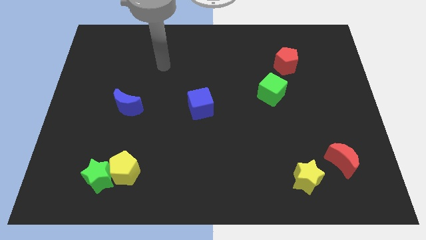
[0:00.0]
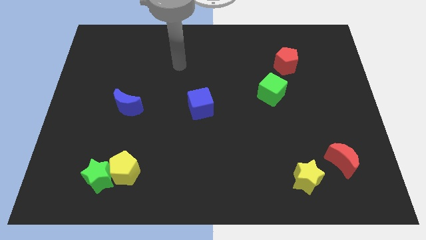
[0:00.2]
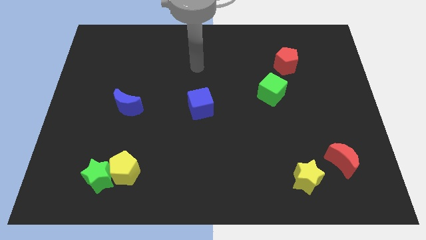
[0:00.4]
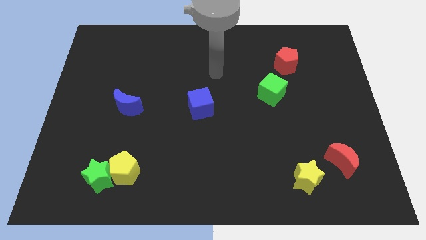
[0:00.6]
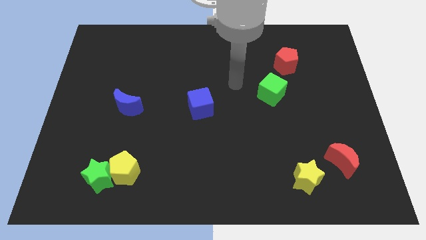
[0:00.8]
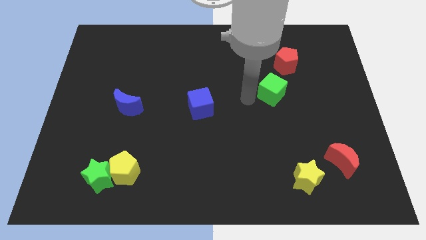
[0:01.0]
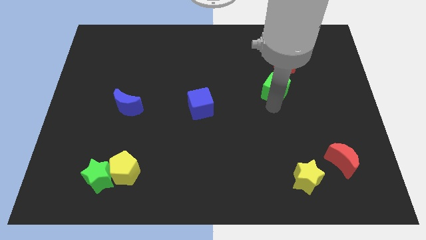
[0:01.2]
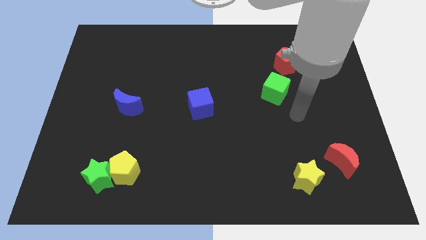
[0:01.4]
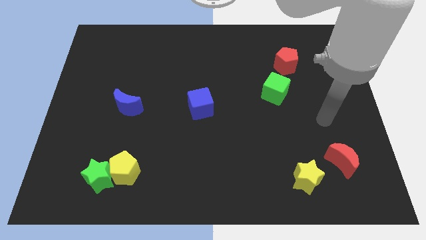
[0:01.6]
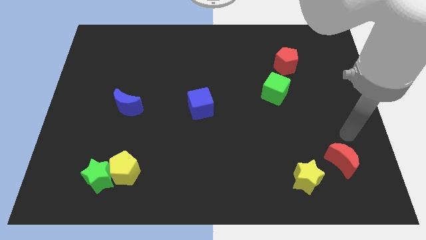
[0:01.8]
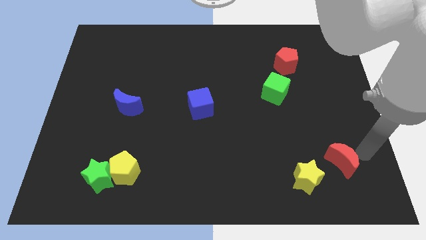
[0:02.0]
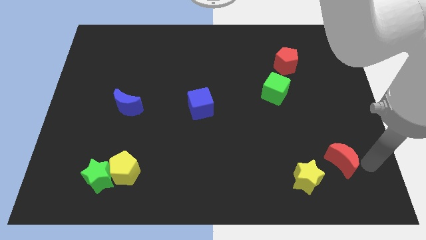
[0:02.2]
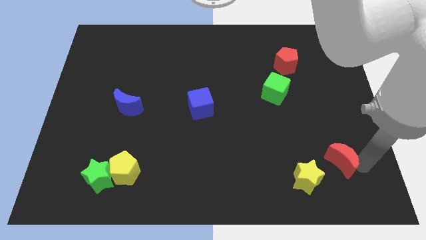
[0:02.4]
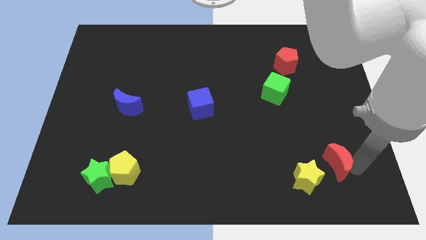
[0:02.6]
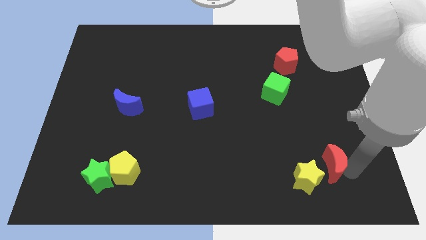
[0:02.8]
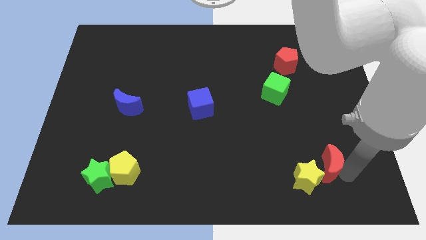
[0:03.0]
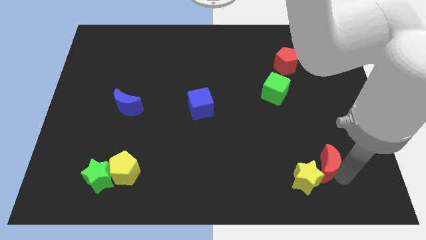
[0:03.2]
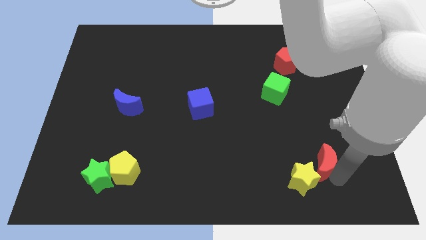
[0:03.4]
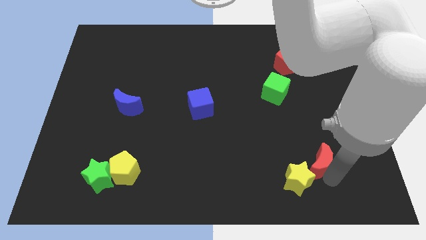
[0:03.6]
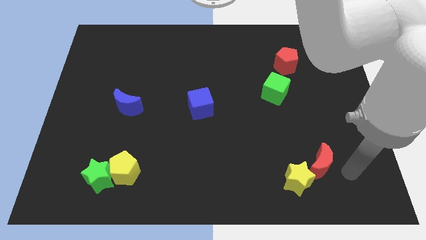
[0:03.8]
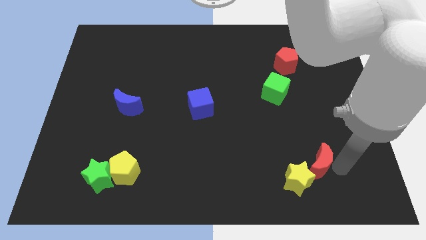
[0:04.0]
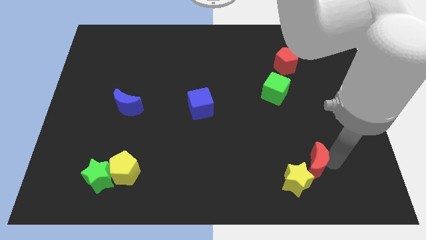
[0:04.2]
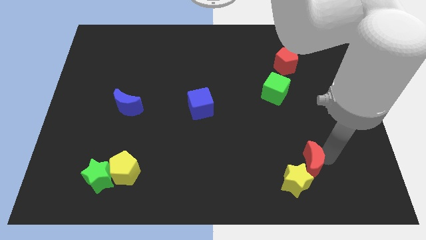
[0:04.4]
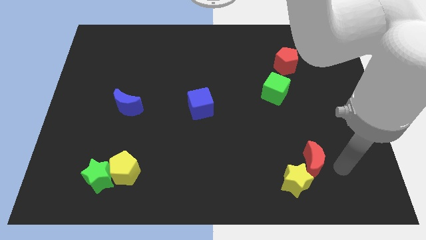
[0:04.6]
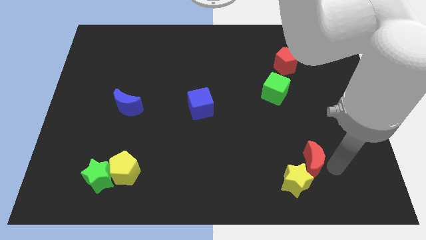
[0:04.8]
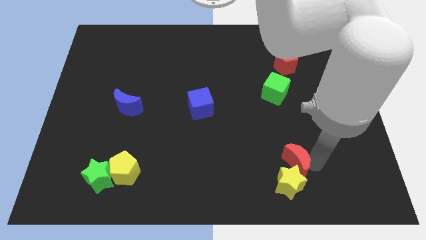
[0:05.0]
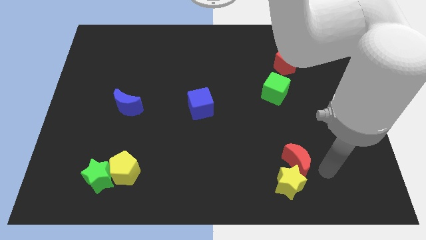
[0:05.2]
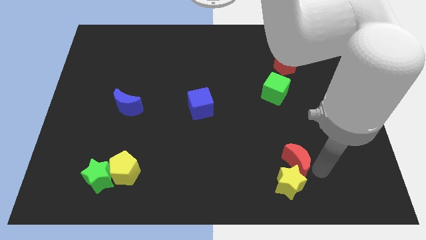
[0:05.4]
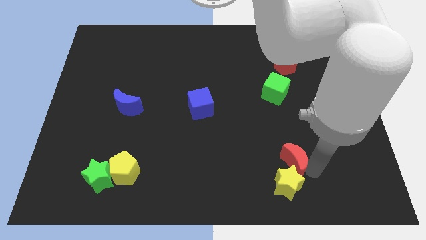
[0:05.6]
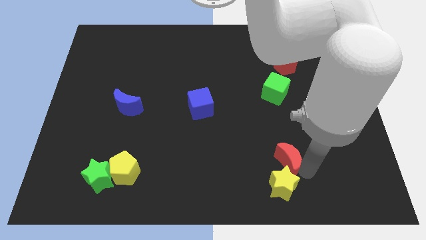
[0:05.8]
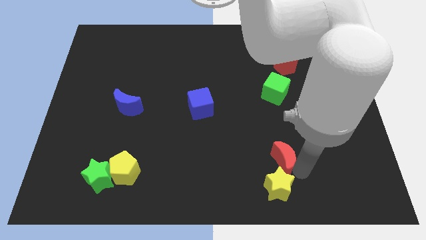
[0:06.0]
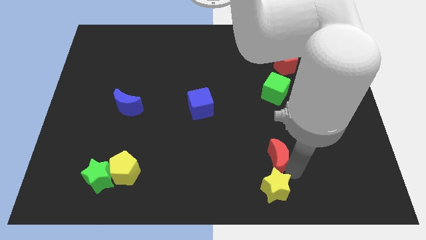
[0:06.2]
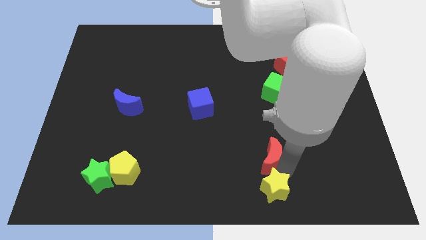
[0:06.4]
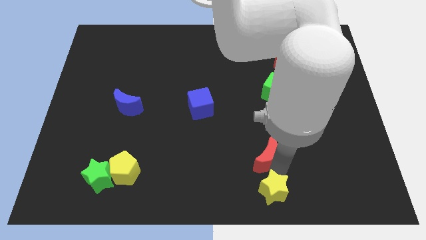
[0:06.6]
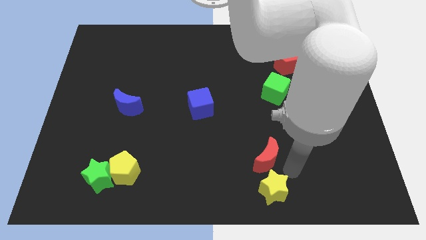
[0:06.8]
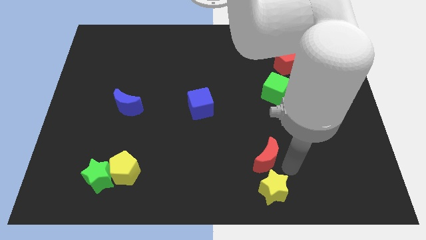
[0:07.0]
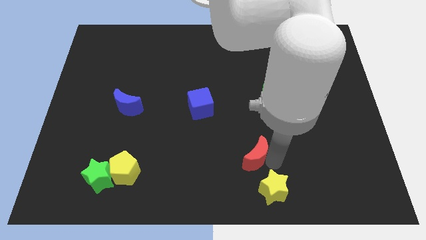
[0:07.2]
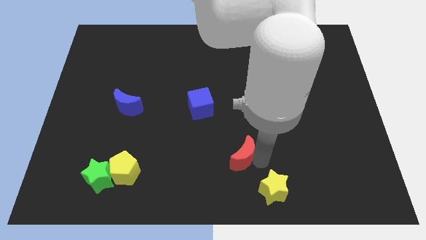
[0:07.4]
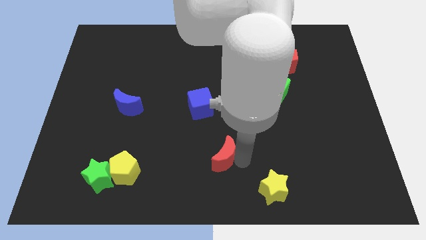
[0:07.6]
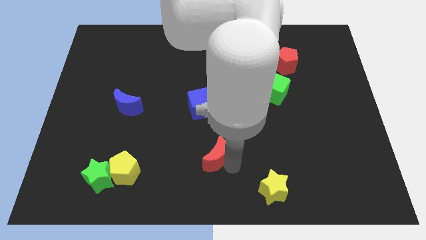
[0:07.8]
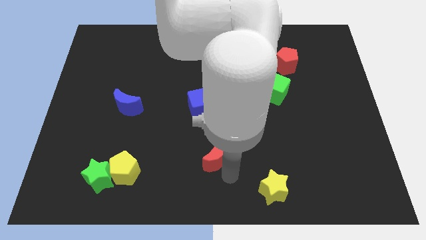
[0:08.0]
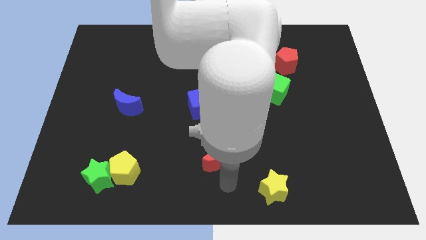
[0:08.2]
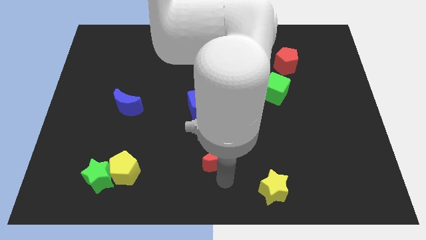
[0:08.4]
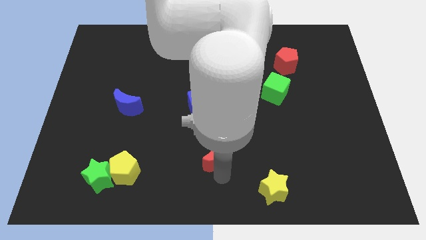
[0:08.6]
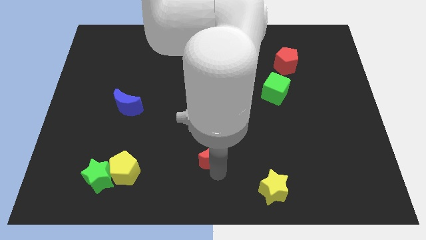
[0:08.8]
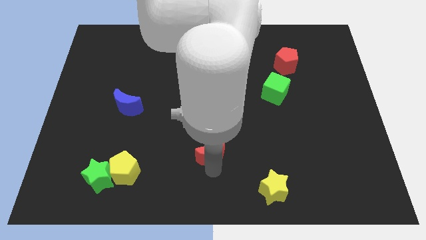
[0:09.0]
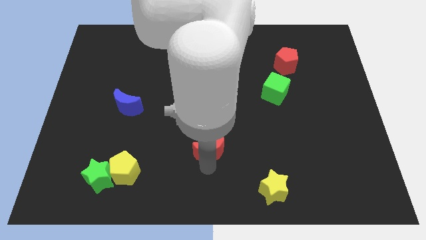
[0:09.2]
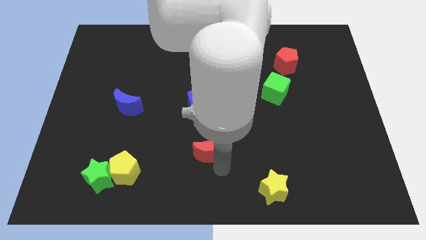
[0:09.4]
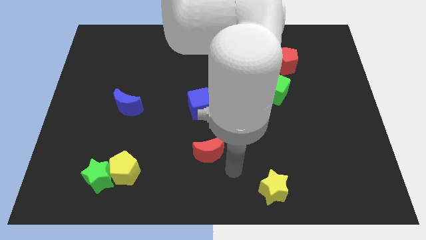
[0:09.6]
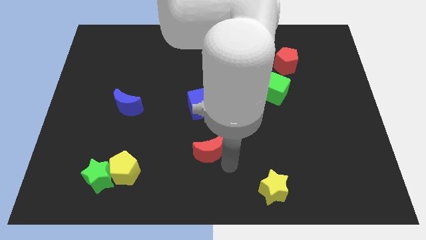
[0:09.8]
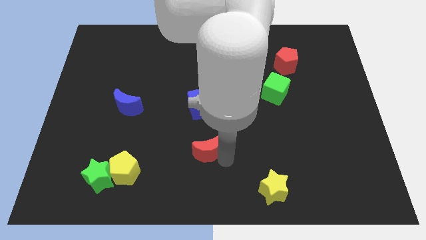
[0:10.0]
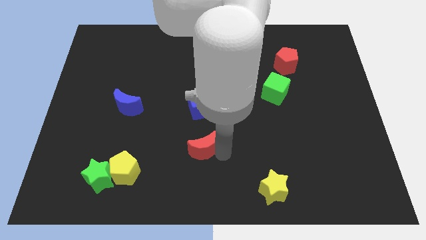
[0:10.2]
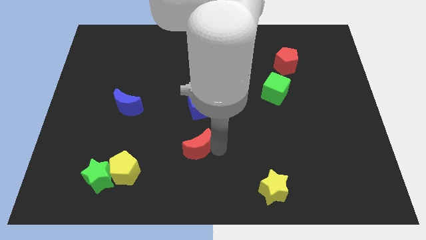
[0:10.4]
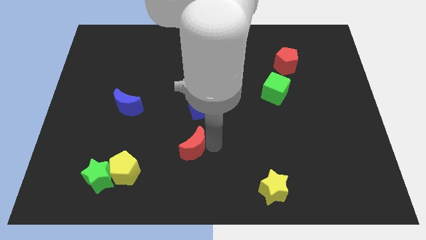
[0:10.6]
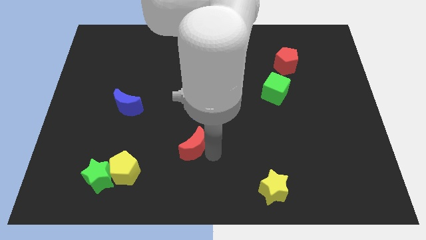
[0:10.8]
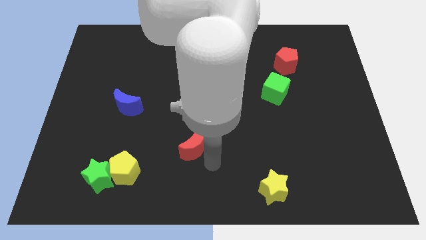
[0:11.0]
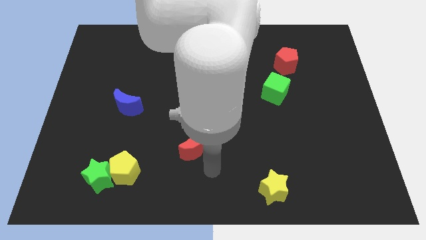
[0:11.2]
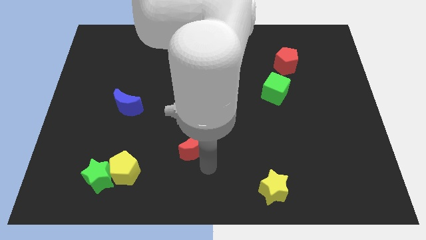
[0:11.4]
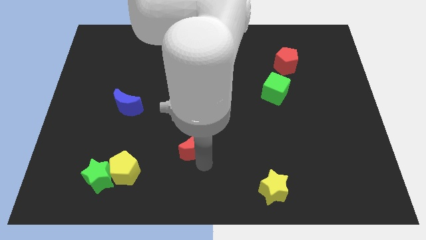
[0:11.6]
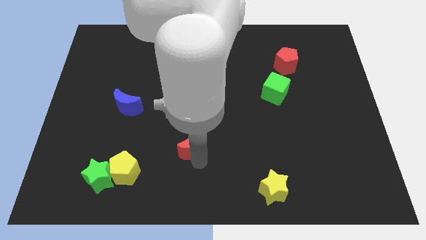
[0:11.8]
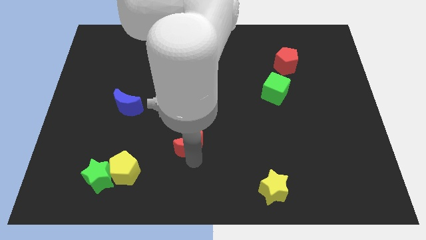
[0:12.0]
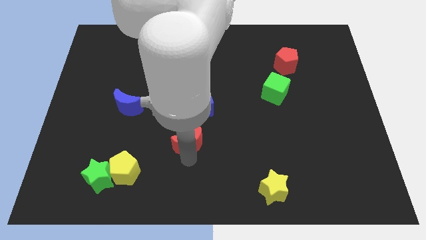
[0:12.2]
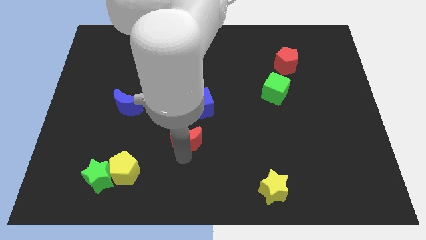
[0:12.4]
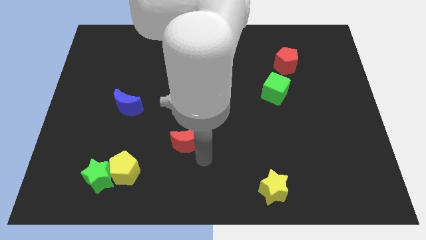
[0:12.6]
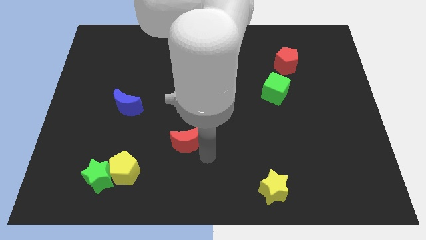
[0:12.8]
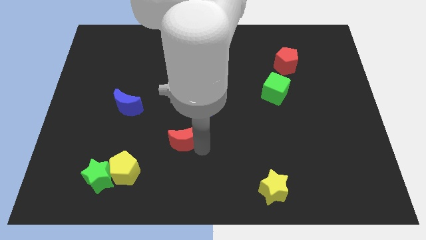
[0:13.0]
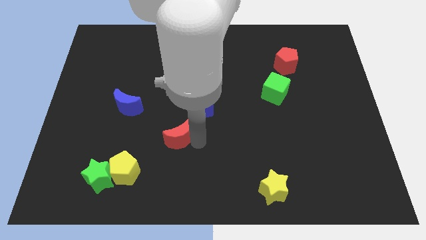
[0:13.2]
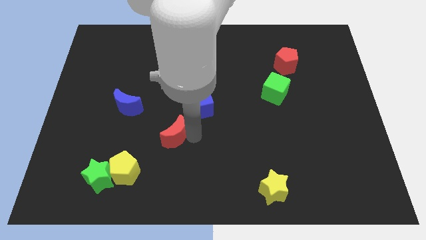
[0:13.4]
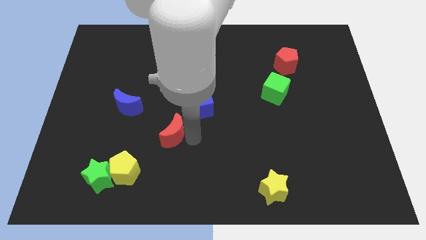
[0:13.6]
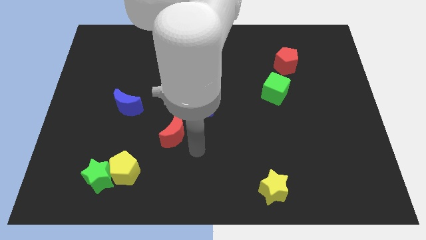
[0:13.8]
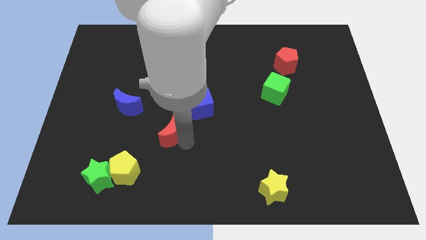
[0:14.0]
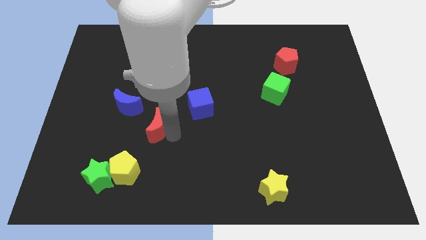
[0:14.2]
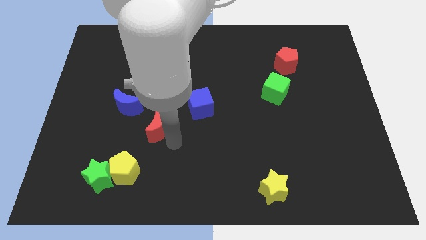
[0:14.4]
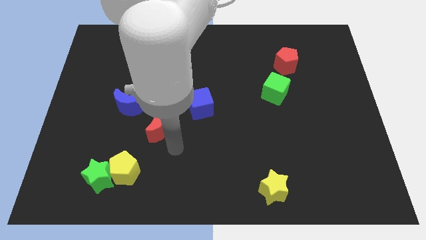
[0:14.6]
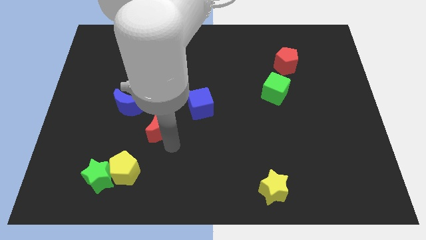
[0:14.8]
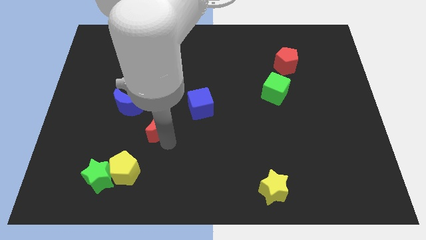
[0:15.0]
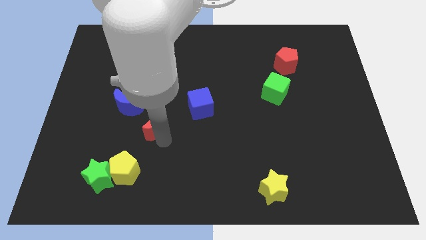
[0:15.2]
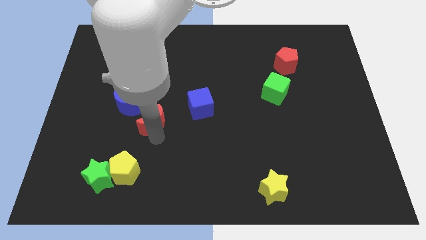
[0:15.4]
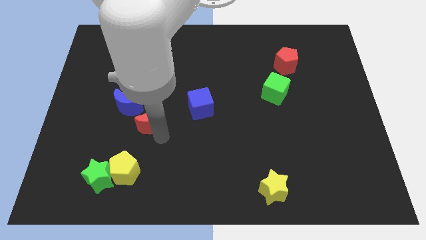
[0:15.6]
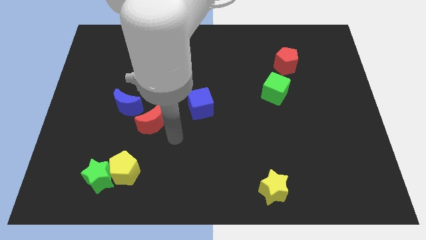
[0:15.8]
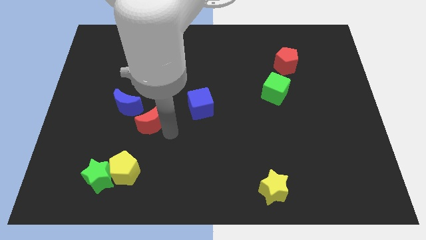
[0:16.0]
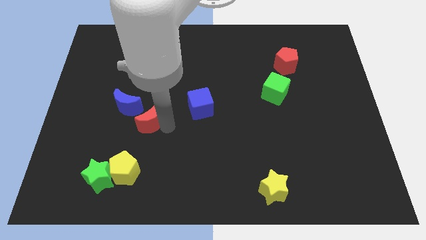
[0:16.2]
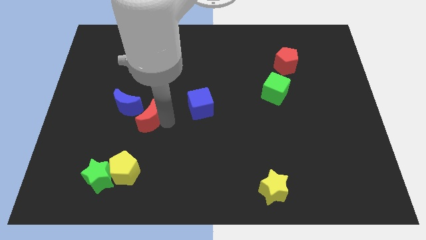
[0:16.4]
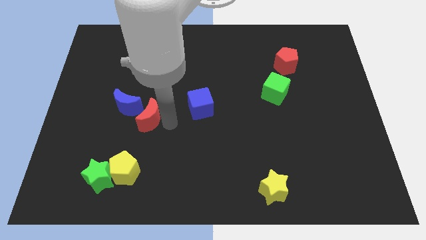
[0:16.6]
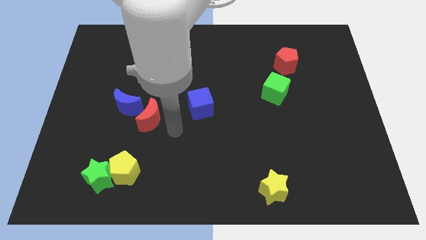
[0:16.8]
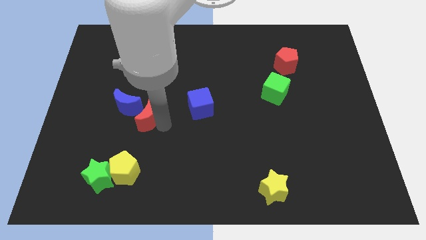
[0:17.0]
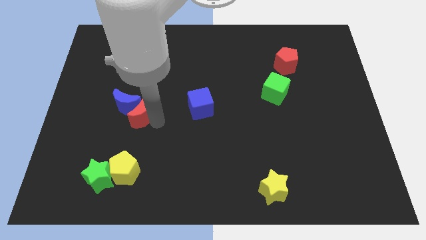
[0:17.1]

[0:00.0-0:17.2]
push the red moon next to the blue moon
